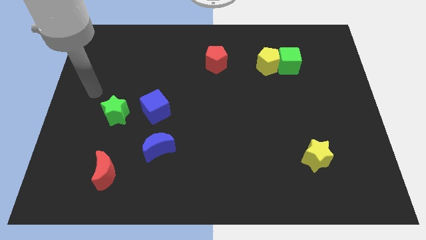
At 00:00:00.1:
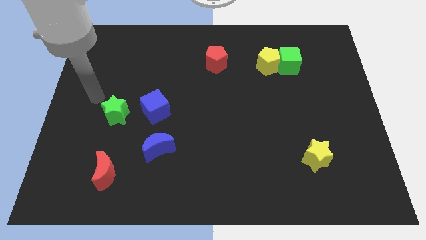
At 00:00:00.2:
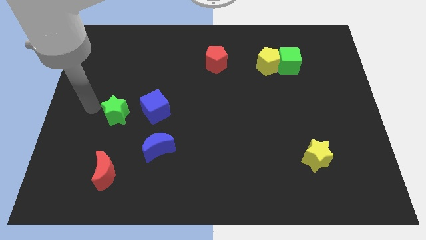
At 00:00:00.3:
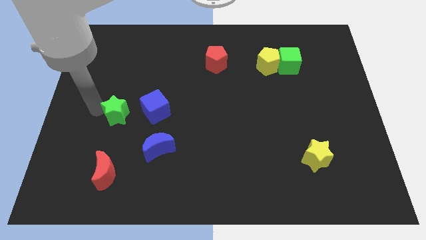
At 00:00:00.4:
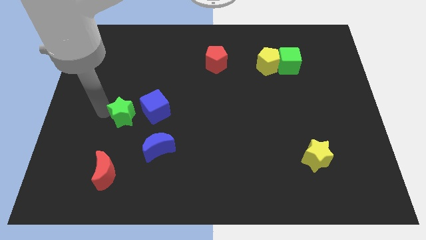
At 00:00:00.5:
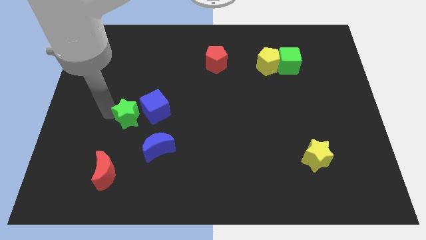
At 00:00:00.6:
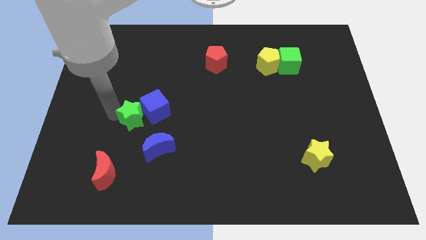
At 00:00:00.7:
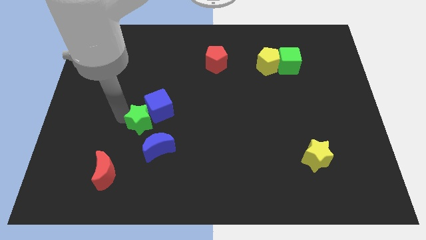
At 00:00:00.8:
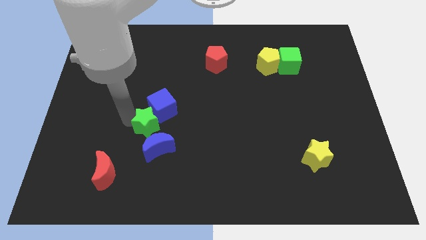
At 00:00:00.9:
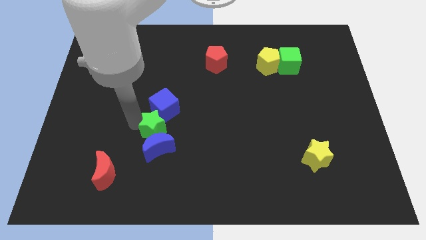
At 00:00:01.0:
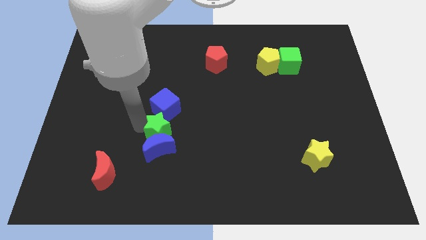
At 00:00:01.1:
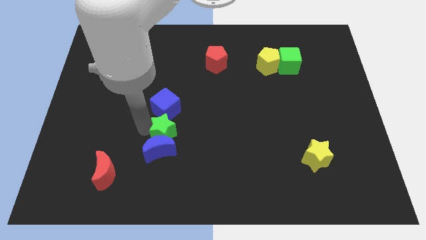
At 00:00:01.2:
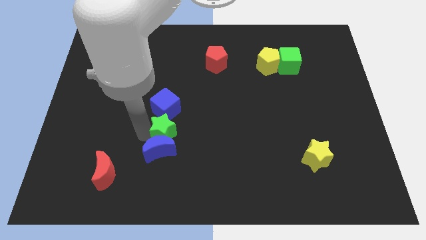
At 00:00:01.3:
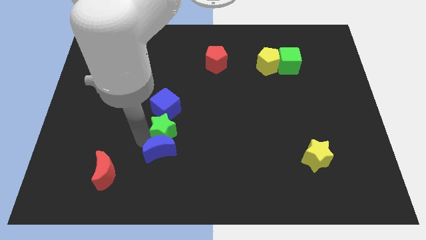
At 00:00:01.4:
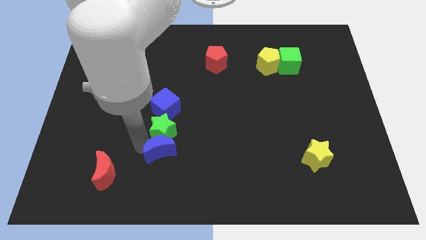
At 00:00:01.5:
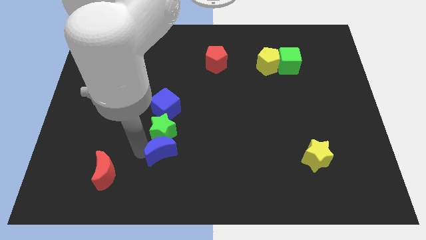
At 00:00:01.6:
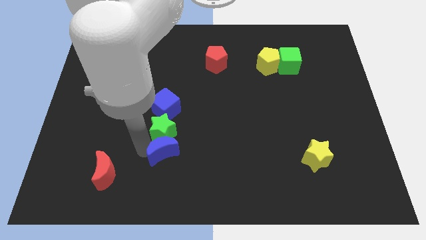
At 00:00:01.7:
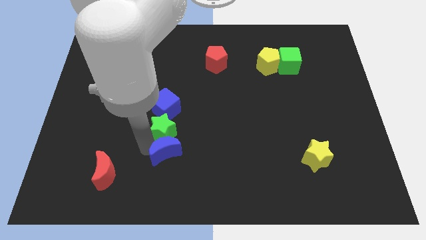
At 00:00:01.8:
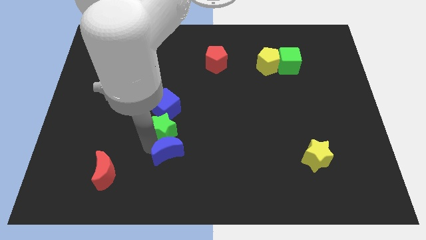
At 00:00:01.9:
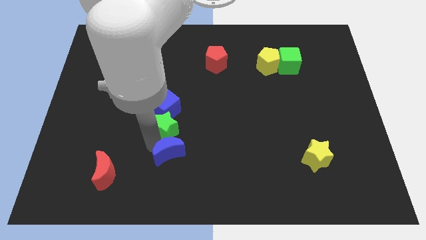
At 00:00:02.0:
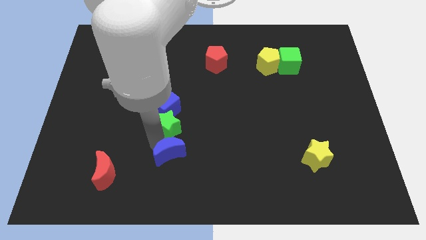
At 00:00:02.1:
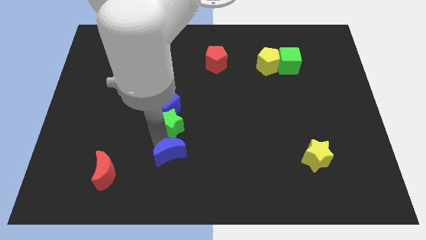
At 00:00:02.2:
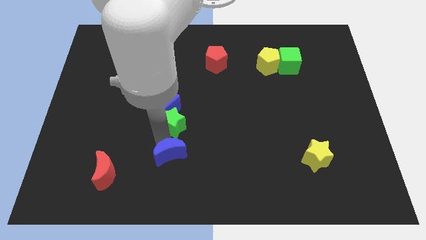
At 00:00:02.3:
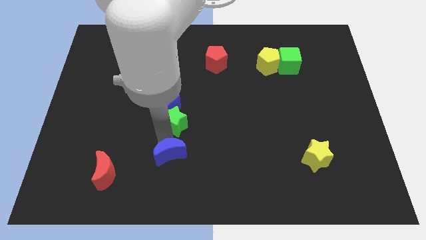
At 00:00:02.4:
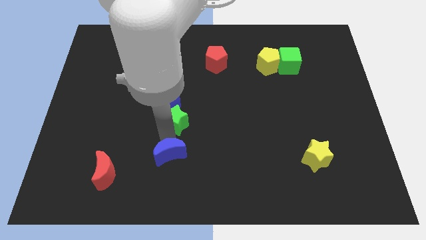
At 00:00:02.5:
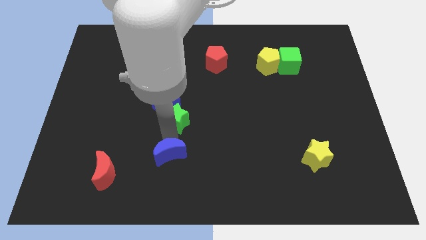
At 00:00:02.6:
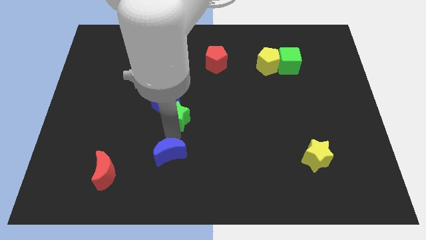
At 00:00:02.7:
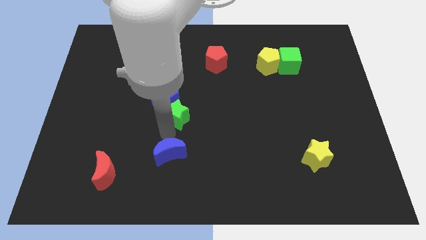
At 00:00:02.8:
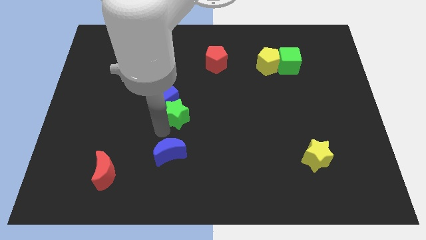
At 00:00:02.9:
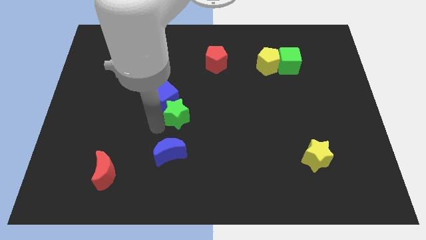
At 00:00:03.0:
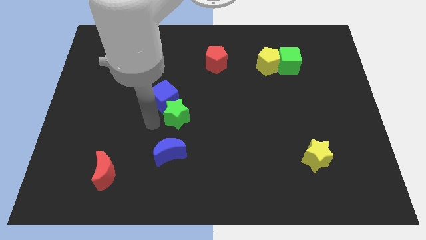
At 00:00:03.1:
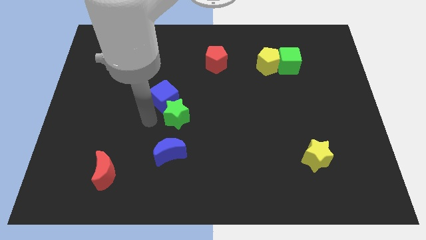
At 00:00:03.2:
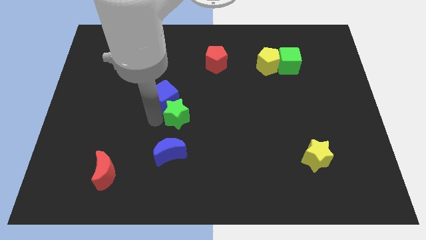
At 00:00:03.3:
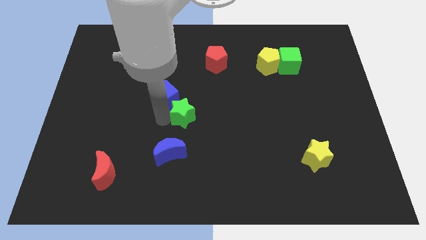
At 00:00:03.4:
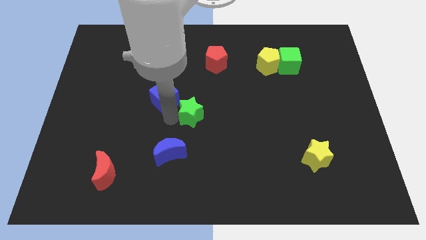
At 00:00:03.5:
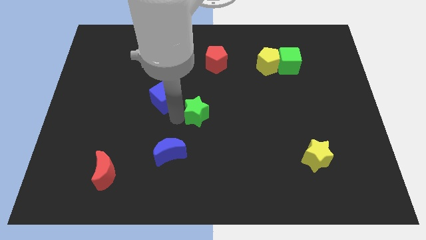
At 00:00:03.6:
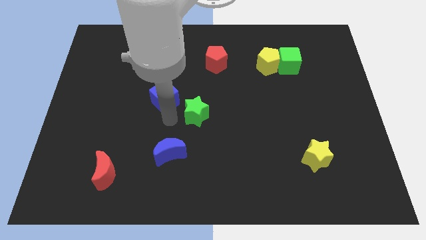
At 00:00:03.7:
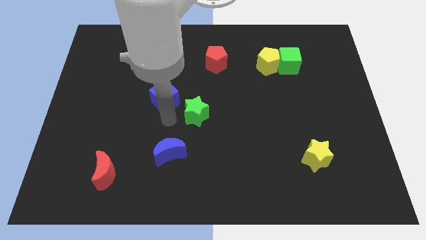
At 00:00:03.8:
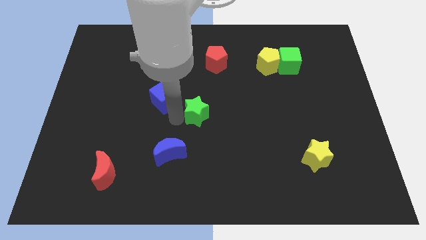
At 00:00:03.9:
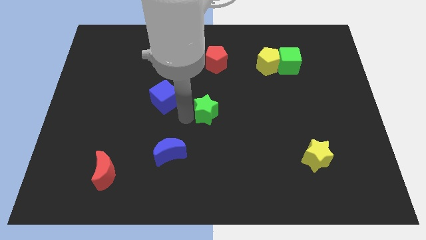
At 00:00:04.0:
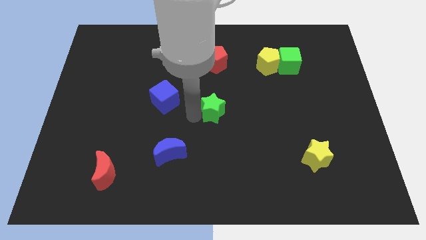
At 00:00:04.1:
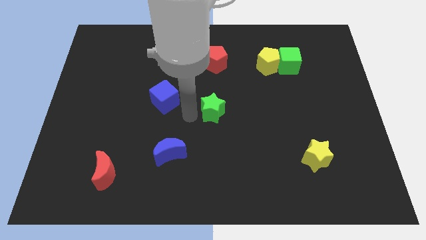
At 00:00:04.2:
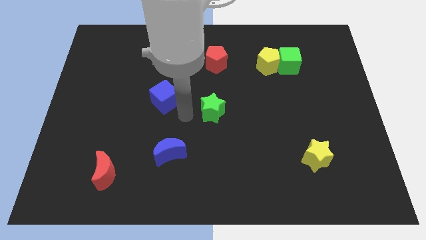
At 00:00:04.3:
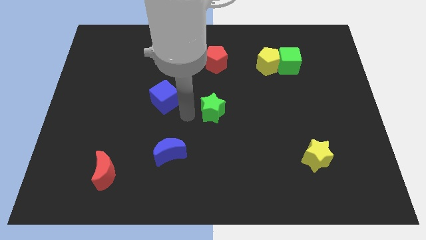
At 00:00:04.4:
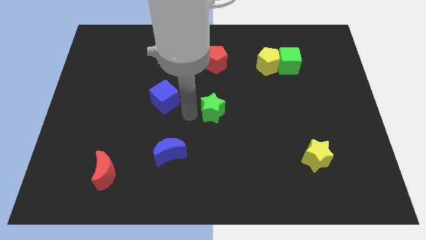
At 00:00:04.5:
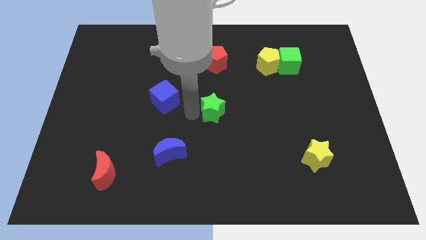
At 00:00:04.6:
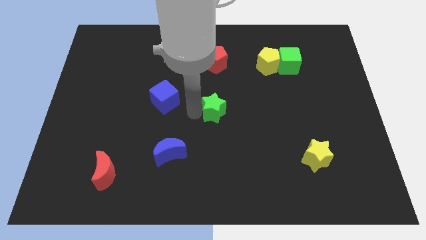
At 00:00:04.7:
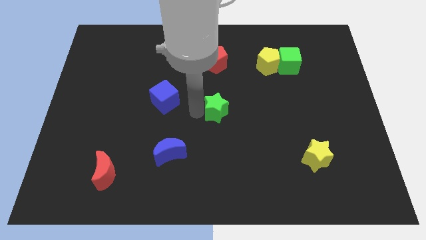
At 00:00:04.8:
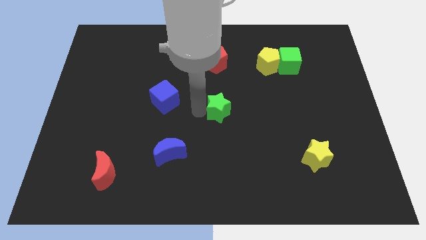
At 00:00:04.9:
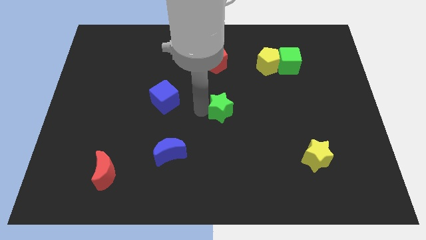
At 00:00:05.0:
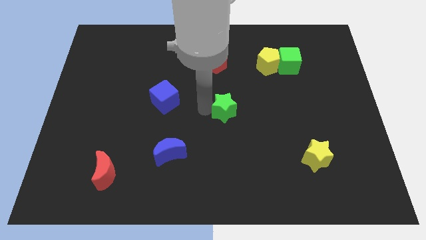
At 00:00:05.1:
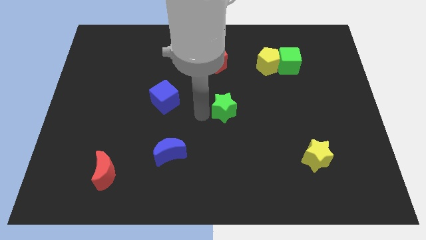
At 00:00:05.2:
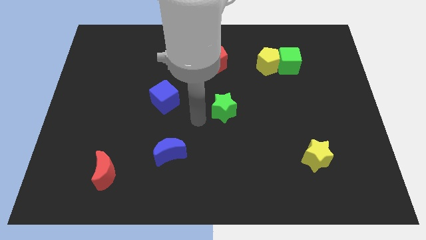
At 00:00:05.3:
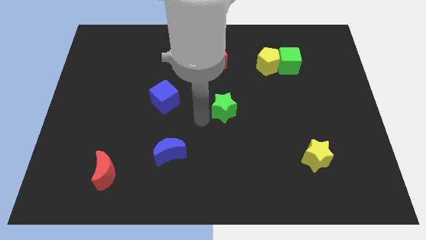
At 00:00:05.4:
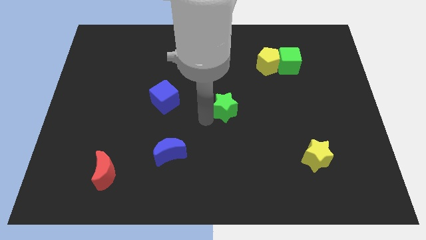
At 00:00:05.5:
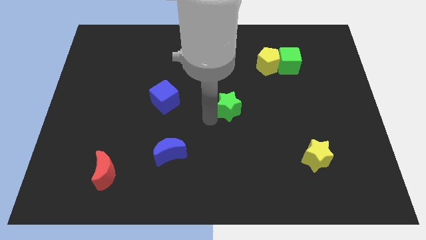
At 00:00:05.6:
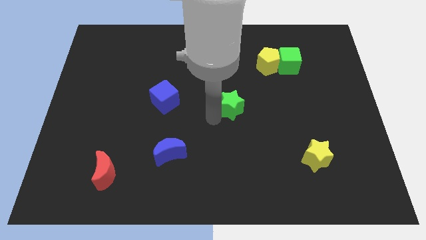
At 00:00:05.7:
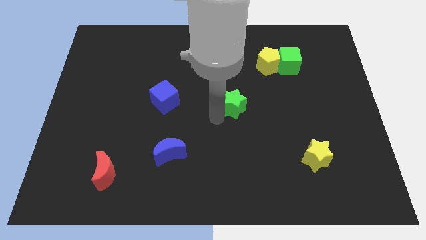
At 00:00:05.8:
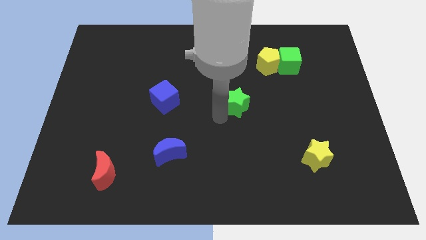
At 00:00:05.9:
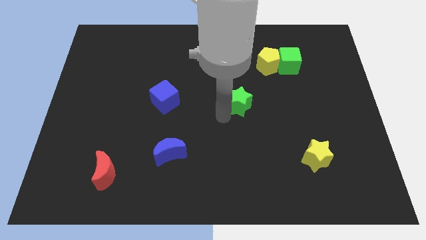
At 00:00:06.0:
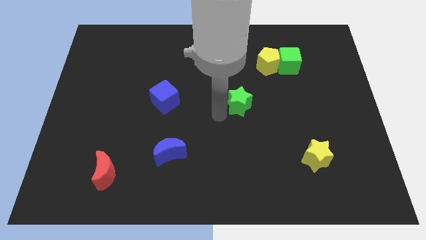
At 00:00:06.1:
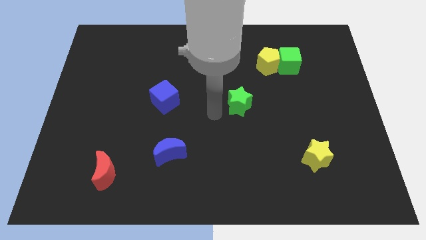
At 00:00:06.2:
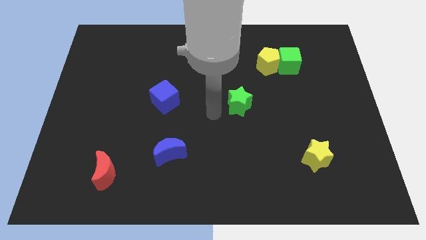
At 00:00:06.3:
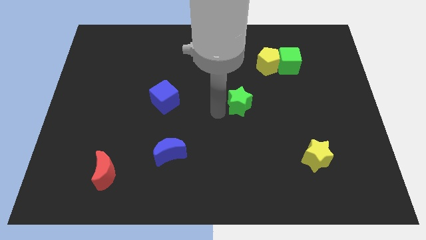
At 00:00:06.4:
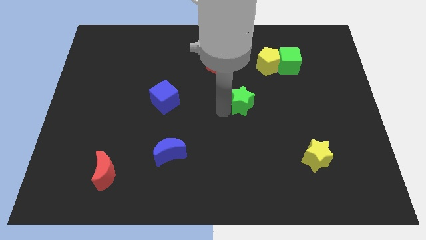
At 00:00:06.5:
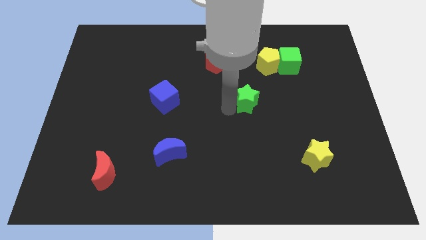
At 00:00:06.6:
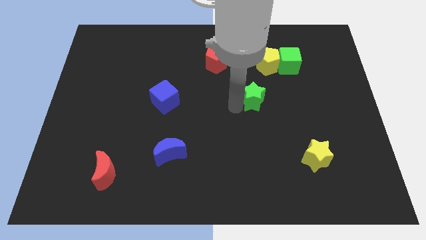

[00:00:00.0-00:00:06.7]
slide the green star to the bottom side of the yellow pentagon

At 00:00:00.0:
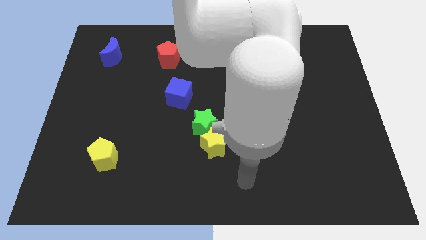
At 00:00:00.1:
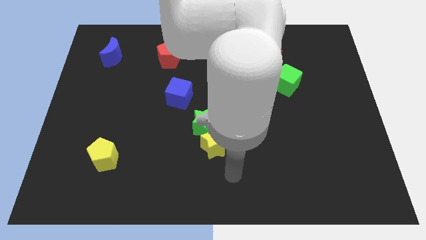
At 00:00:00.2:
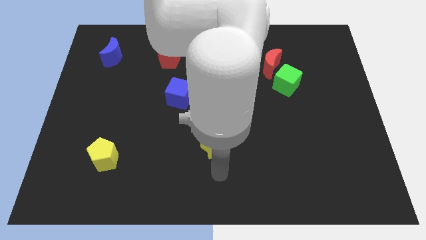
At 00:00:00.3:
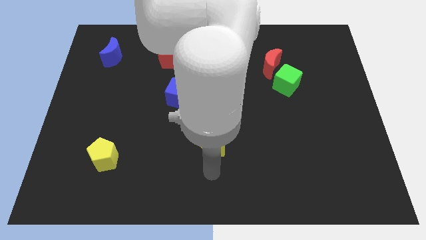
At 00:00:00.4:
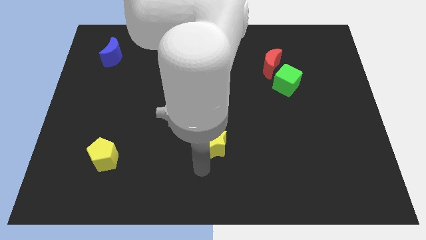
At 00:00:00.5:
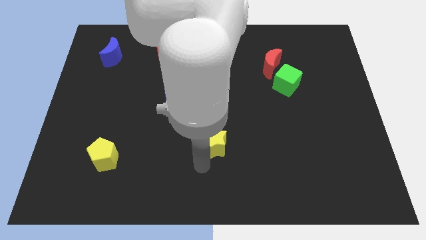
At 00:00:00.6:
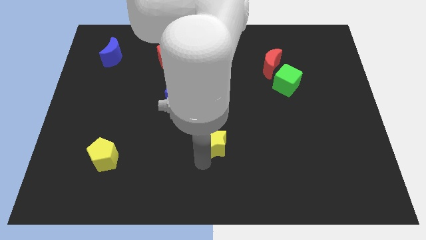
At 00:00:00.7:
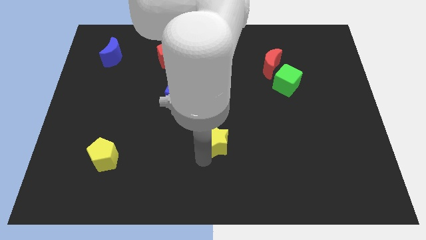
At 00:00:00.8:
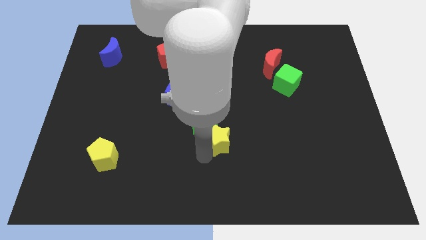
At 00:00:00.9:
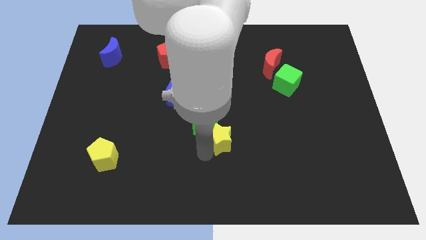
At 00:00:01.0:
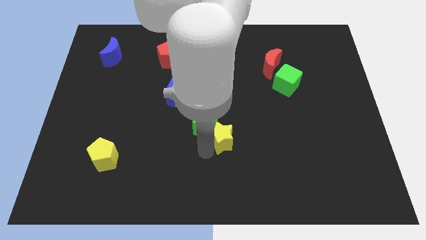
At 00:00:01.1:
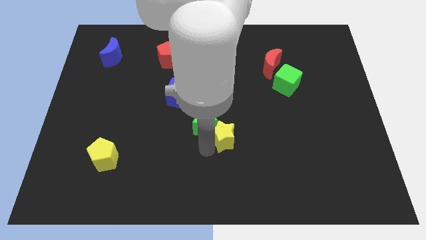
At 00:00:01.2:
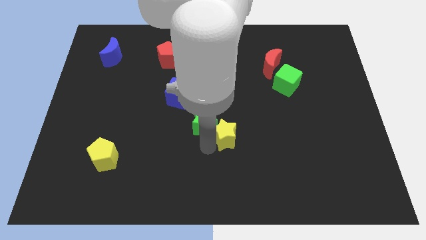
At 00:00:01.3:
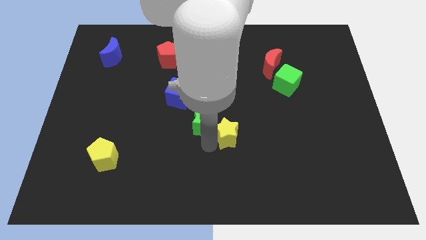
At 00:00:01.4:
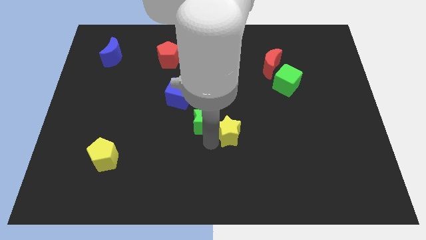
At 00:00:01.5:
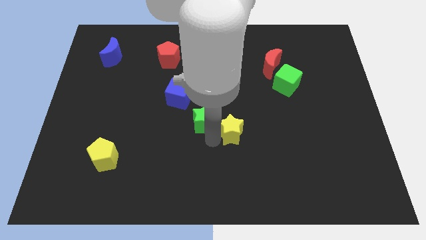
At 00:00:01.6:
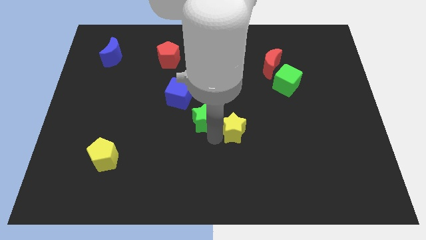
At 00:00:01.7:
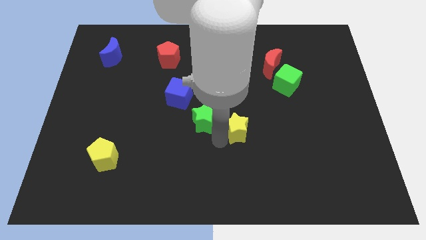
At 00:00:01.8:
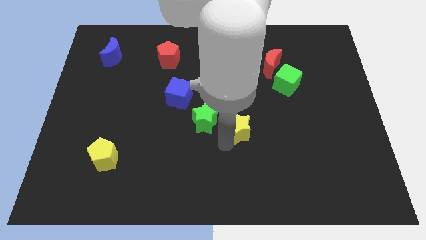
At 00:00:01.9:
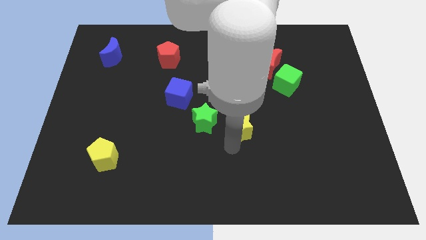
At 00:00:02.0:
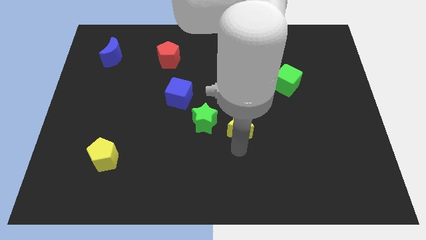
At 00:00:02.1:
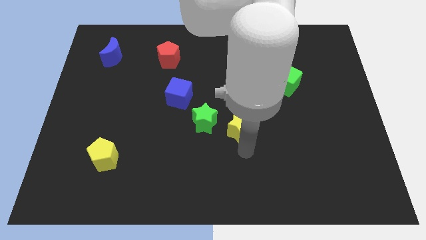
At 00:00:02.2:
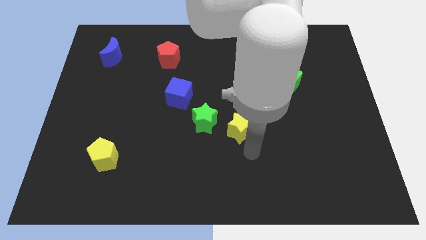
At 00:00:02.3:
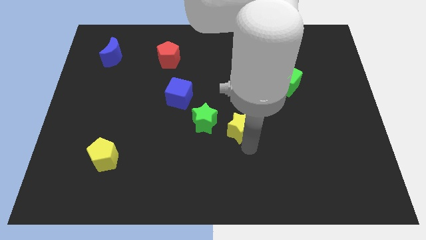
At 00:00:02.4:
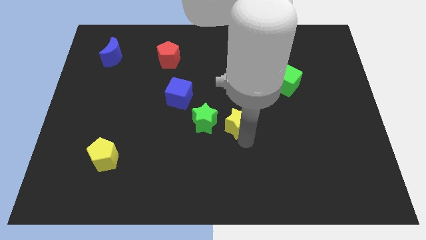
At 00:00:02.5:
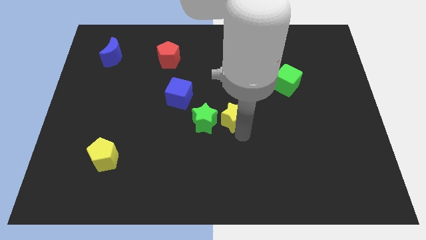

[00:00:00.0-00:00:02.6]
push the yellow star to the top right side of the green star
